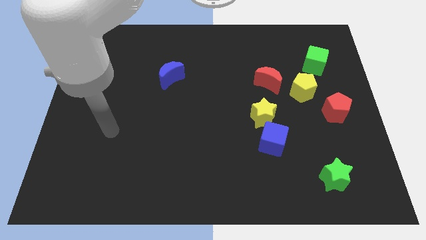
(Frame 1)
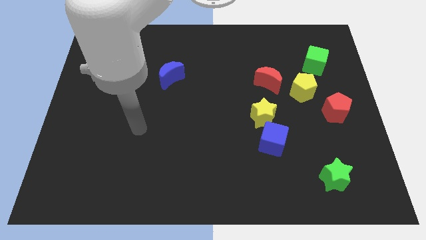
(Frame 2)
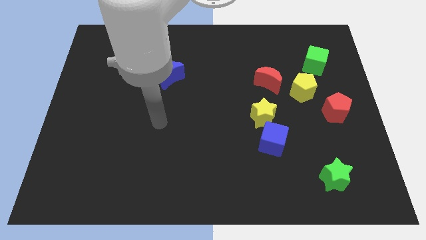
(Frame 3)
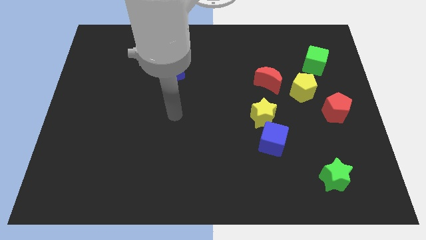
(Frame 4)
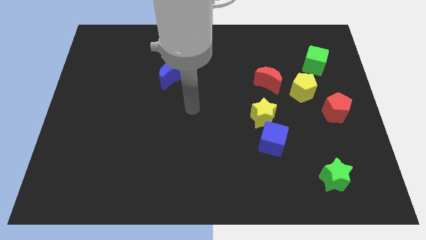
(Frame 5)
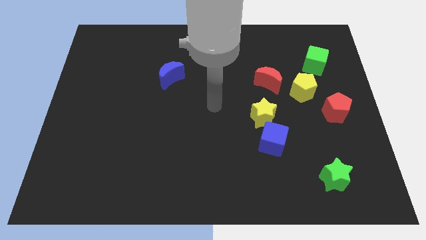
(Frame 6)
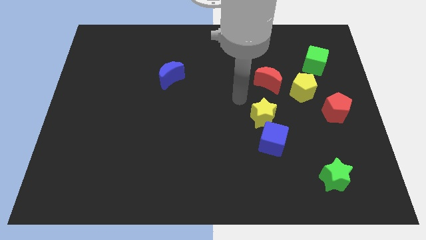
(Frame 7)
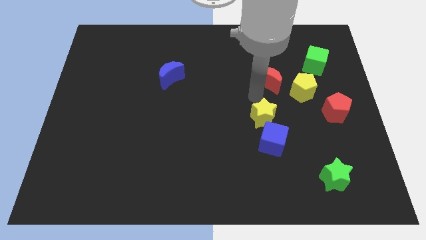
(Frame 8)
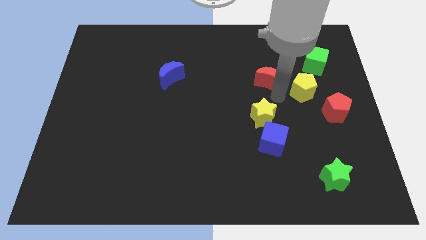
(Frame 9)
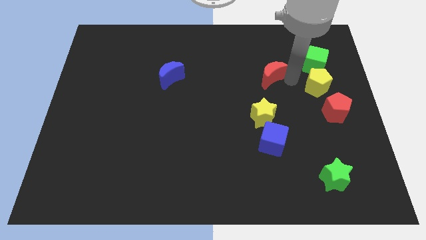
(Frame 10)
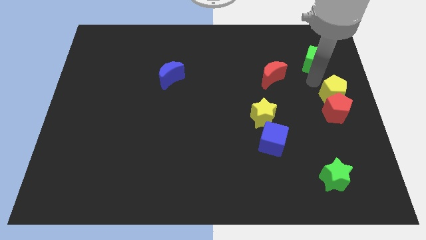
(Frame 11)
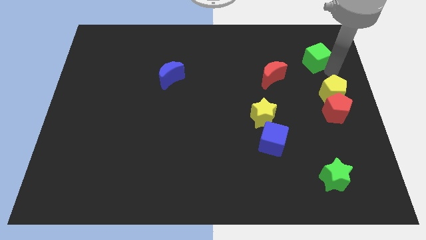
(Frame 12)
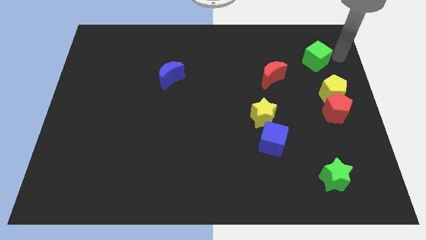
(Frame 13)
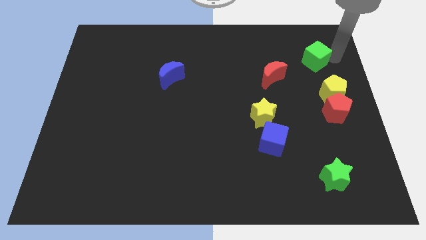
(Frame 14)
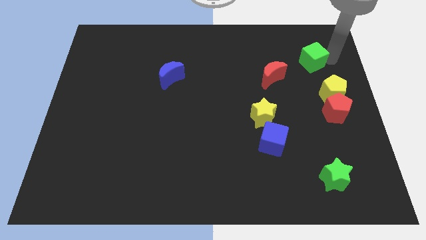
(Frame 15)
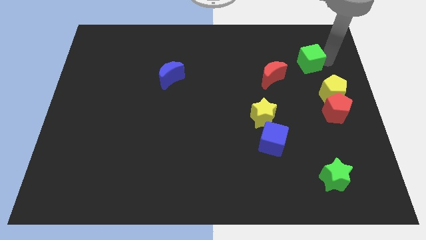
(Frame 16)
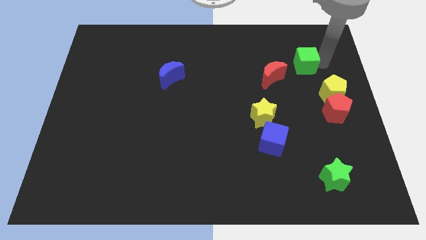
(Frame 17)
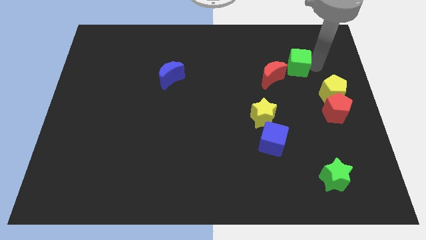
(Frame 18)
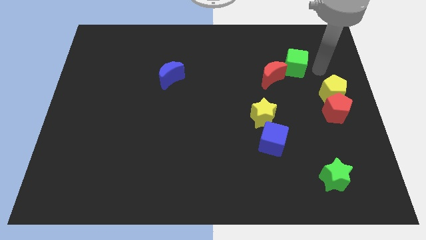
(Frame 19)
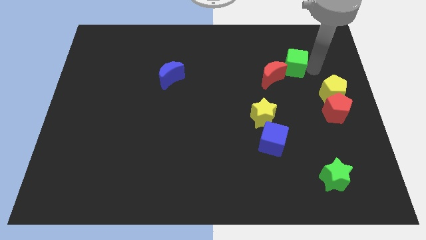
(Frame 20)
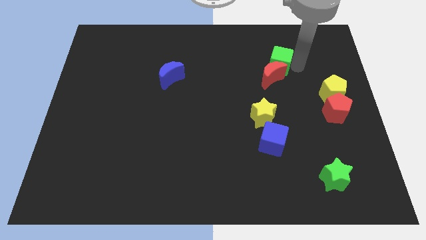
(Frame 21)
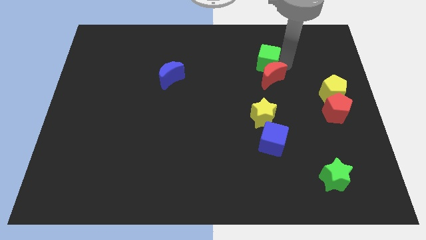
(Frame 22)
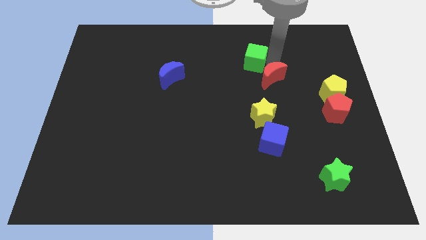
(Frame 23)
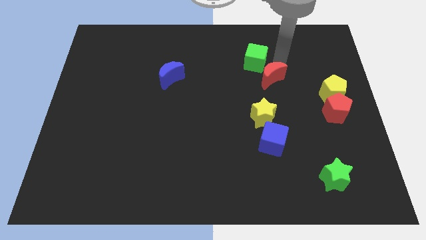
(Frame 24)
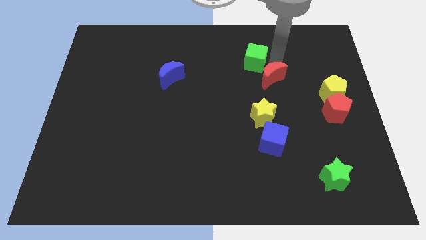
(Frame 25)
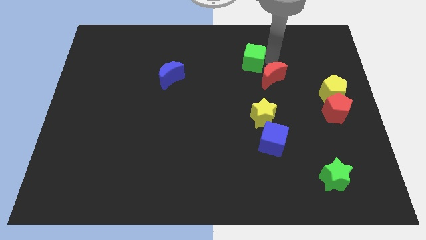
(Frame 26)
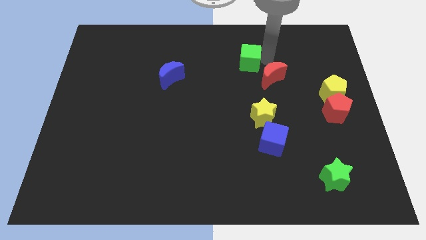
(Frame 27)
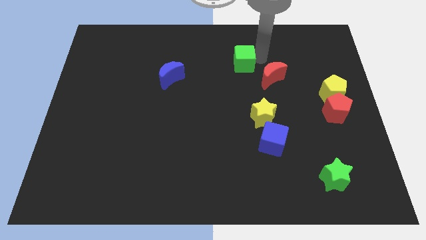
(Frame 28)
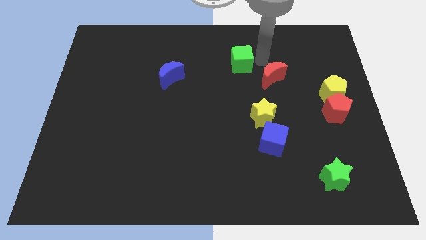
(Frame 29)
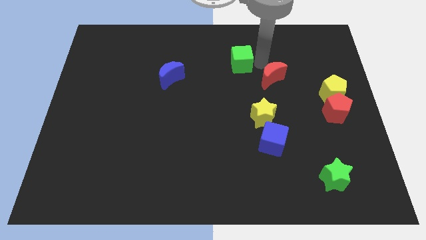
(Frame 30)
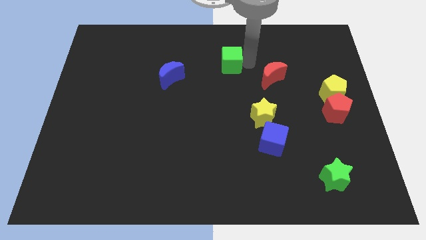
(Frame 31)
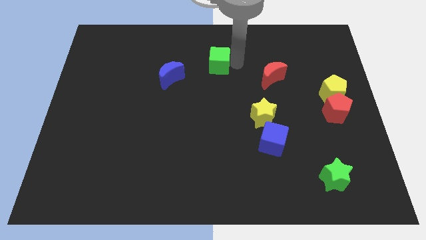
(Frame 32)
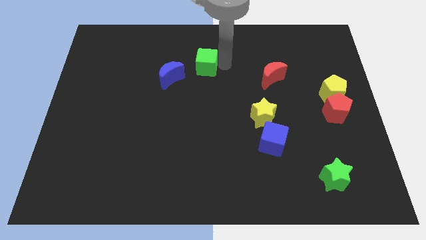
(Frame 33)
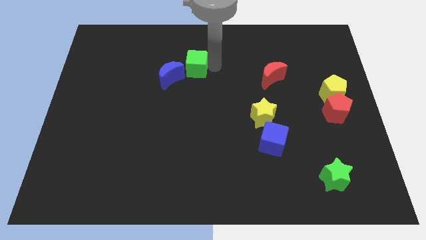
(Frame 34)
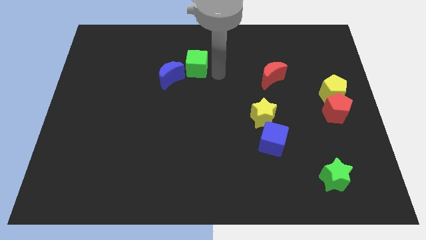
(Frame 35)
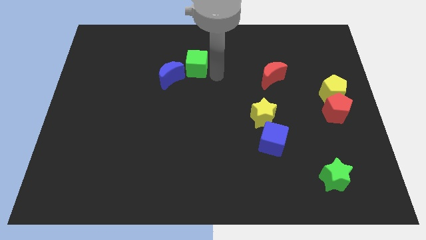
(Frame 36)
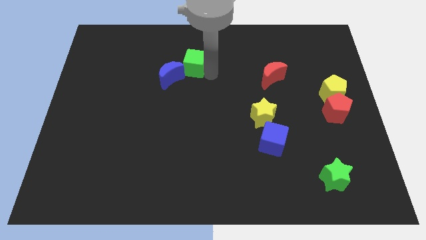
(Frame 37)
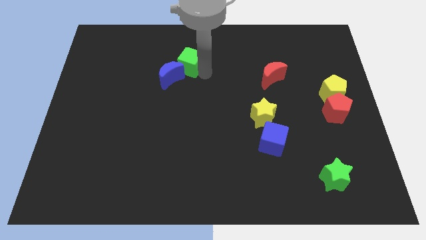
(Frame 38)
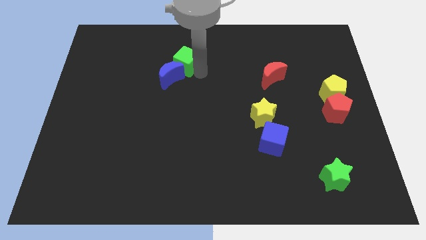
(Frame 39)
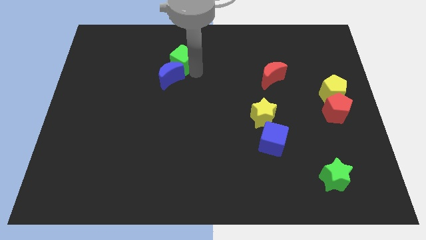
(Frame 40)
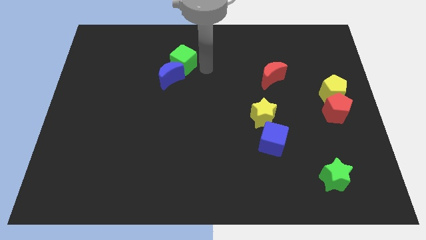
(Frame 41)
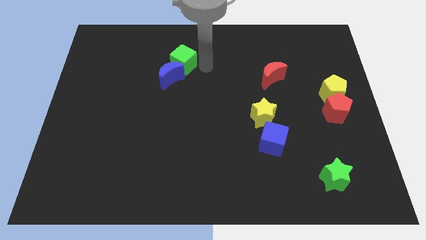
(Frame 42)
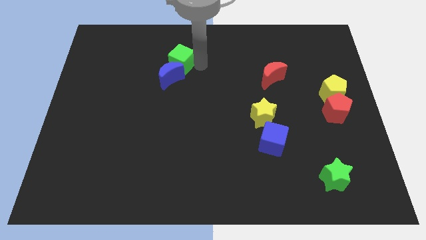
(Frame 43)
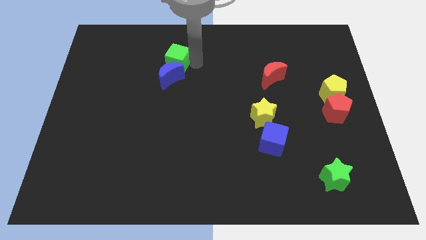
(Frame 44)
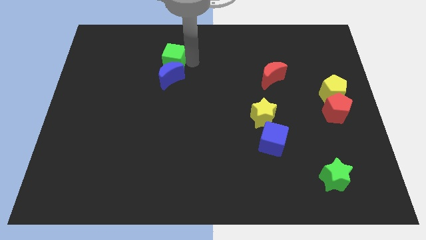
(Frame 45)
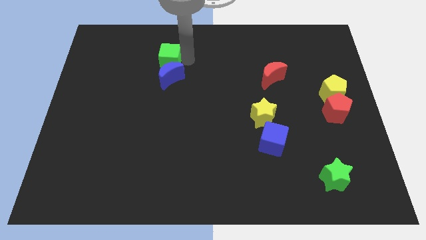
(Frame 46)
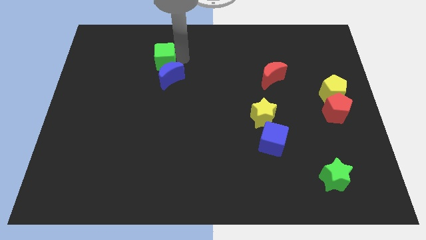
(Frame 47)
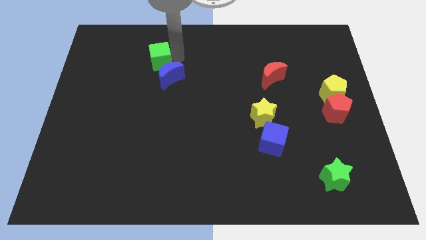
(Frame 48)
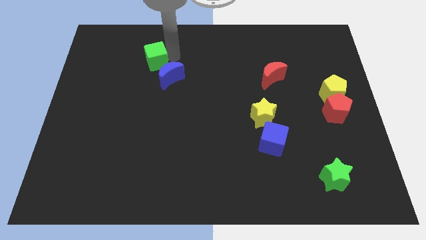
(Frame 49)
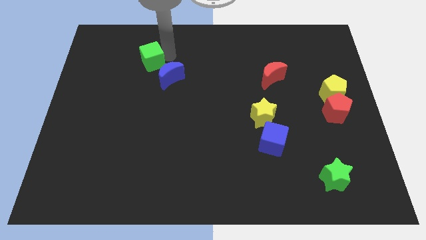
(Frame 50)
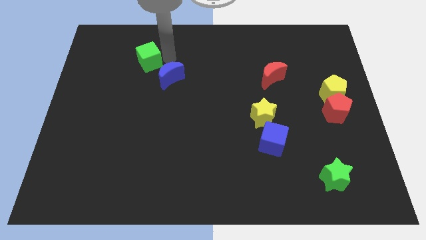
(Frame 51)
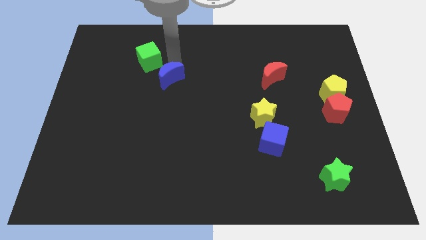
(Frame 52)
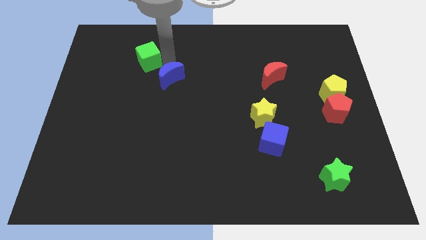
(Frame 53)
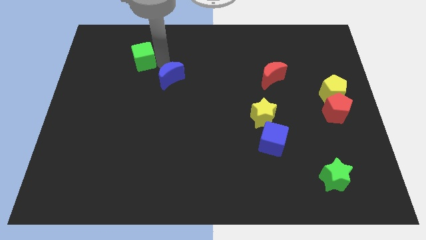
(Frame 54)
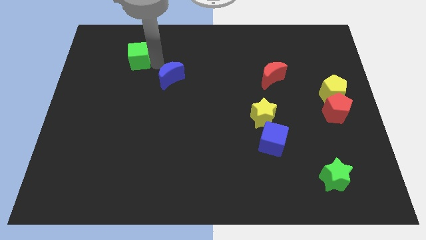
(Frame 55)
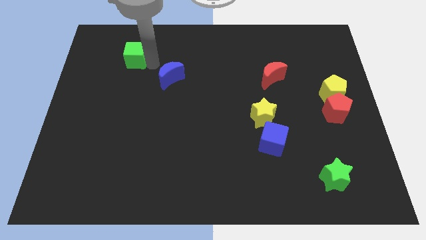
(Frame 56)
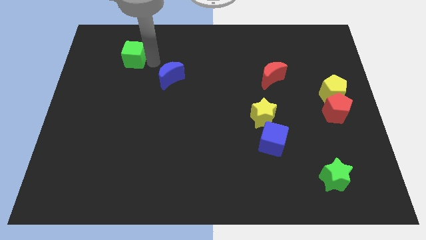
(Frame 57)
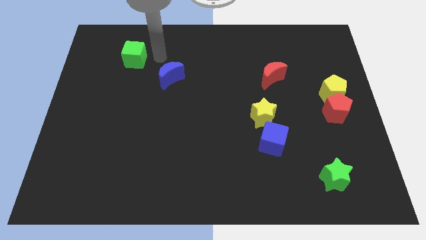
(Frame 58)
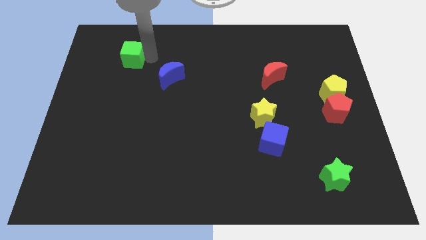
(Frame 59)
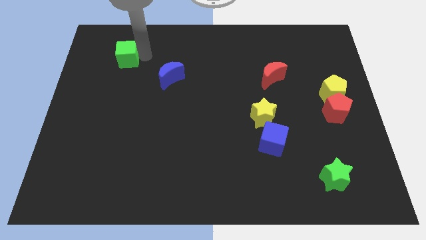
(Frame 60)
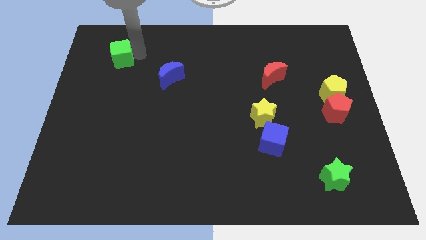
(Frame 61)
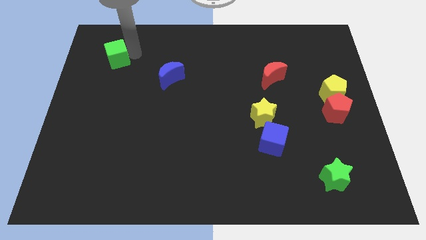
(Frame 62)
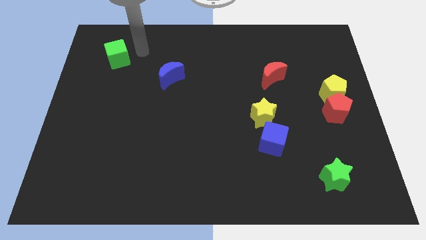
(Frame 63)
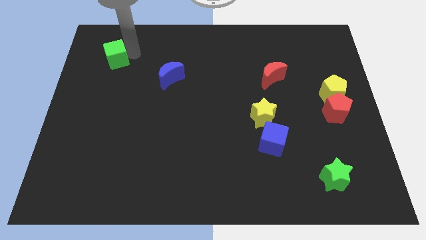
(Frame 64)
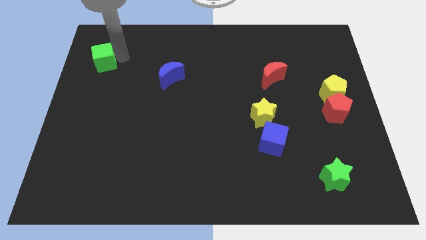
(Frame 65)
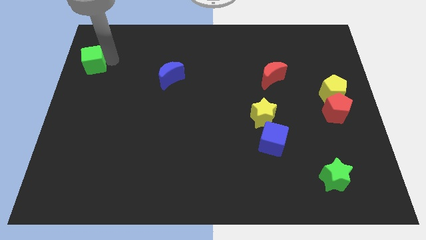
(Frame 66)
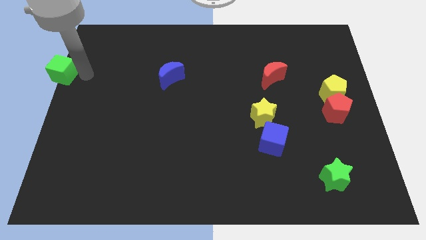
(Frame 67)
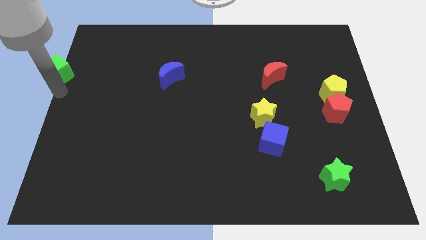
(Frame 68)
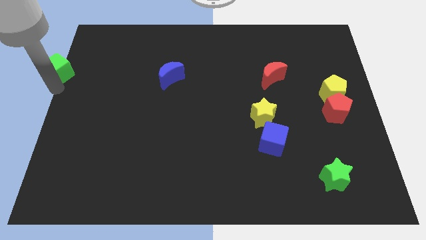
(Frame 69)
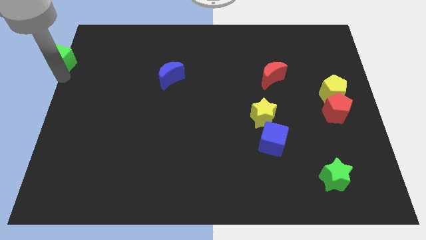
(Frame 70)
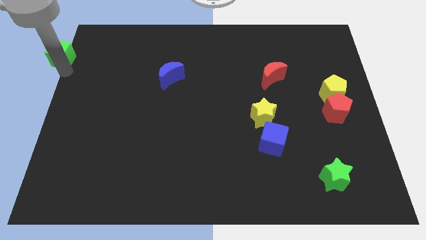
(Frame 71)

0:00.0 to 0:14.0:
slide the green cube to the top left of the board
